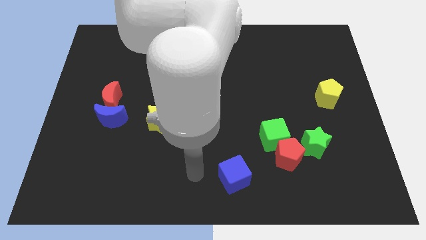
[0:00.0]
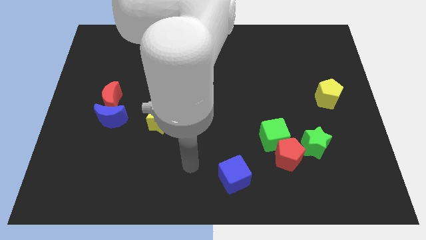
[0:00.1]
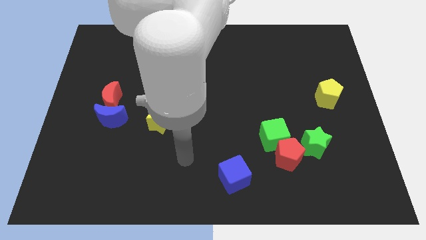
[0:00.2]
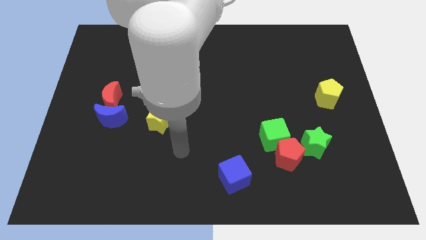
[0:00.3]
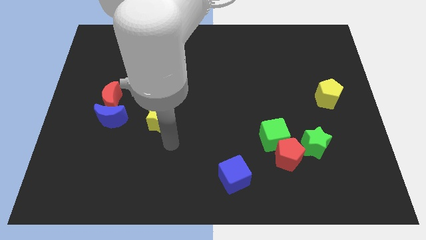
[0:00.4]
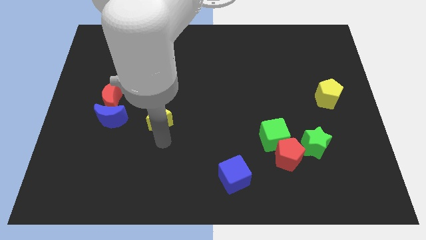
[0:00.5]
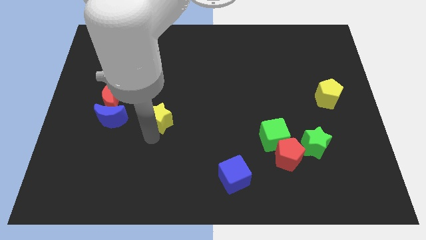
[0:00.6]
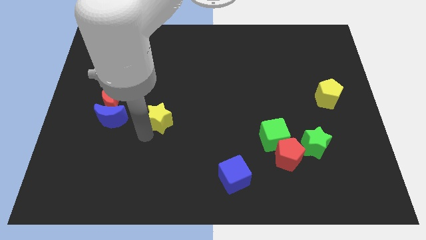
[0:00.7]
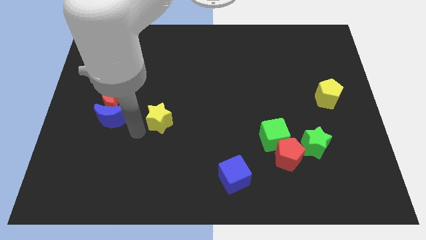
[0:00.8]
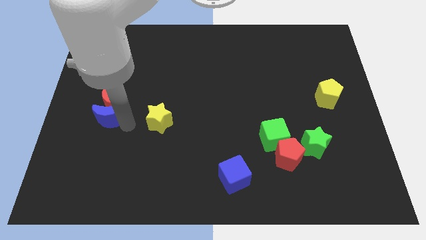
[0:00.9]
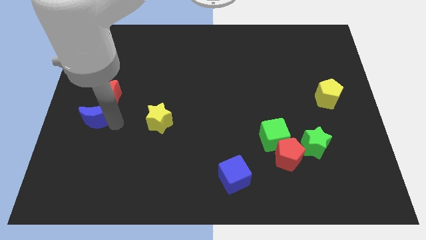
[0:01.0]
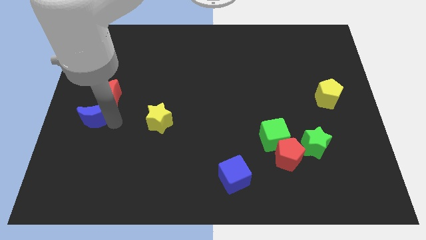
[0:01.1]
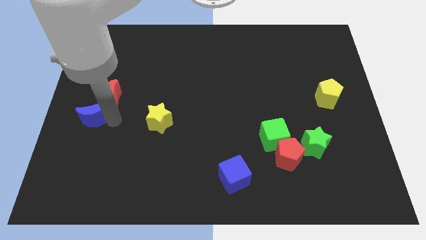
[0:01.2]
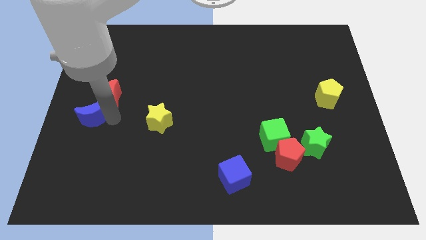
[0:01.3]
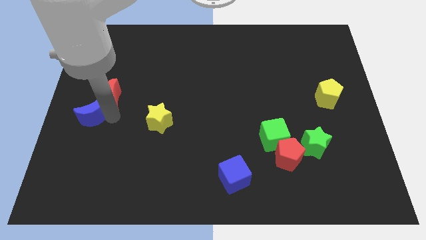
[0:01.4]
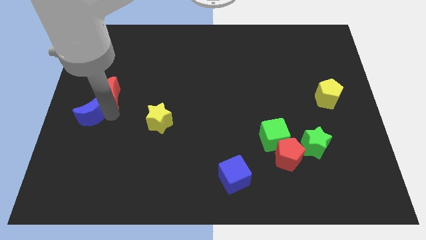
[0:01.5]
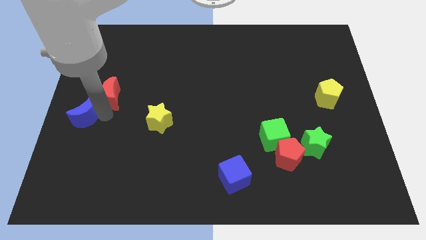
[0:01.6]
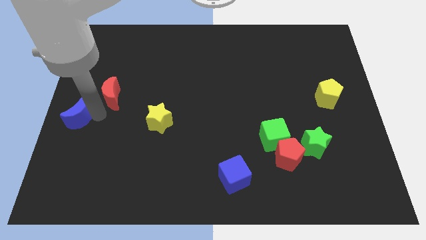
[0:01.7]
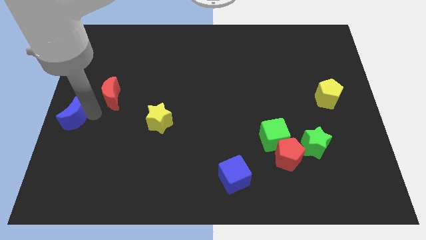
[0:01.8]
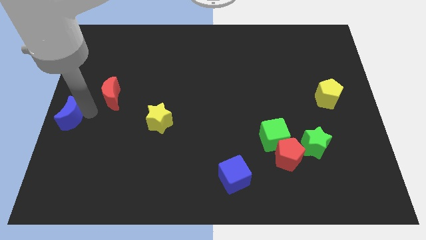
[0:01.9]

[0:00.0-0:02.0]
pull the red moon apart from the blue moon

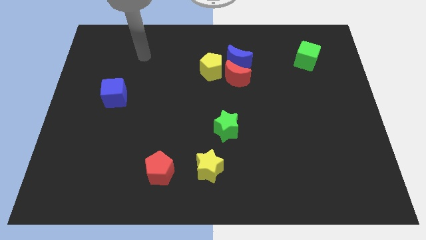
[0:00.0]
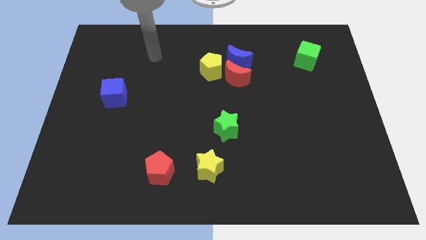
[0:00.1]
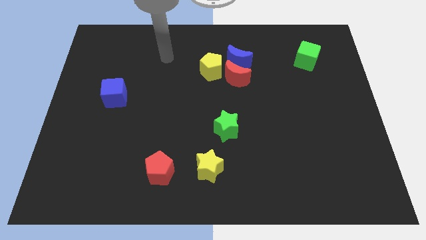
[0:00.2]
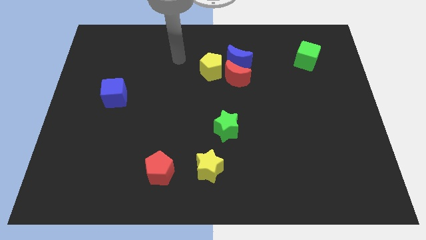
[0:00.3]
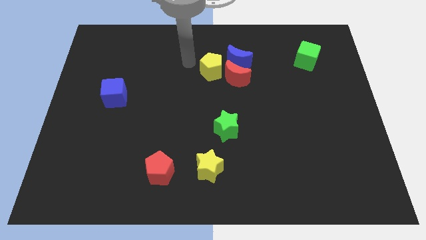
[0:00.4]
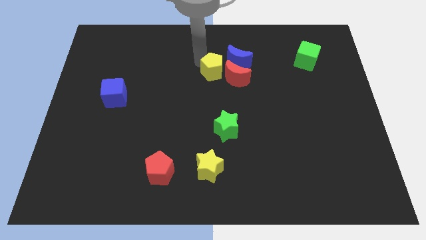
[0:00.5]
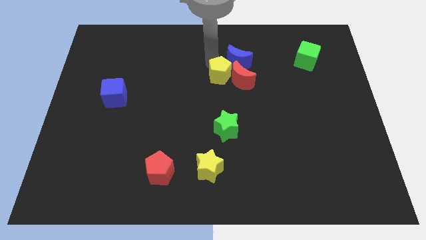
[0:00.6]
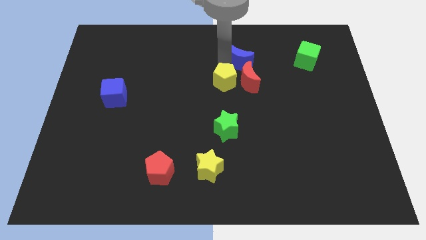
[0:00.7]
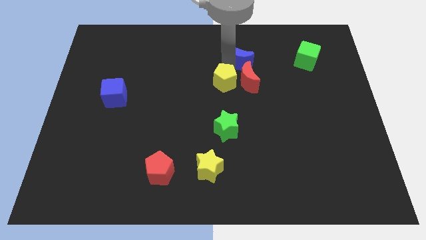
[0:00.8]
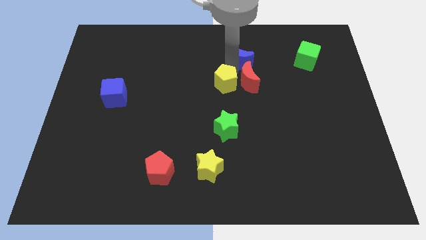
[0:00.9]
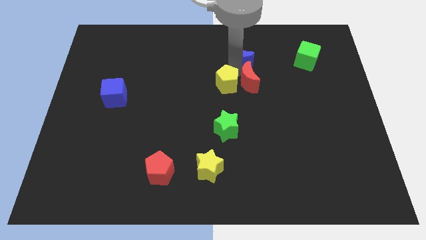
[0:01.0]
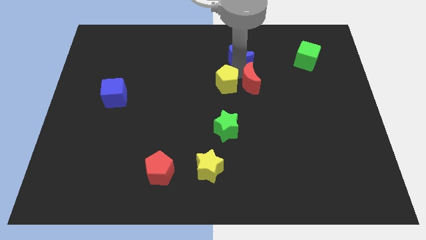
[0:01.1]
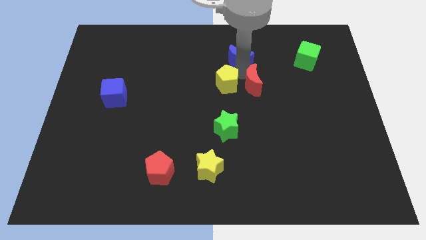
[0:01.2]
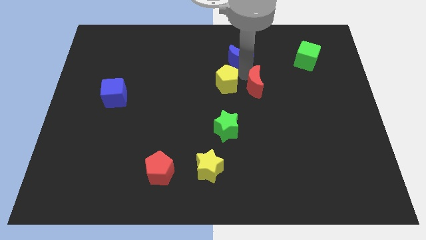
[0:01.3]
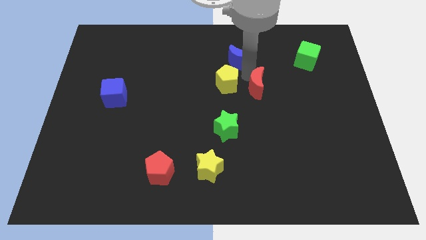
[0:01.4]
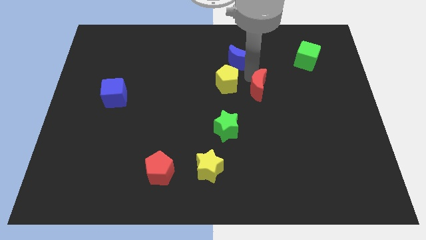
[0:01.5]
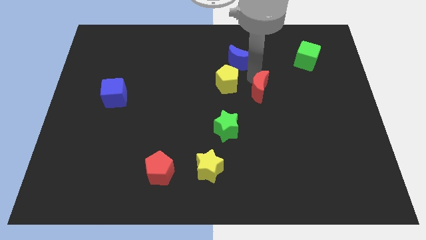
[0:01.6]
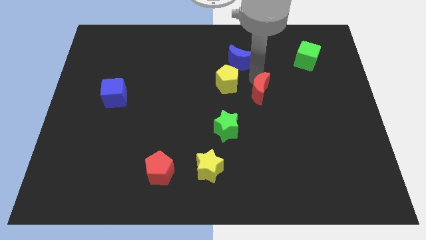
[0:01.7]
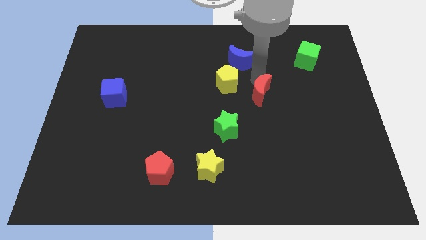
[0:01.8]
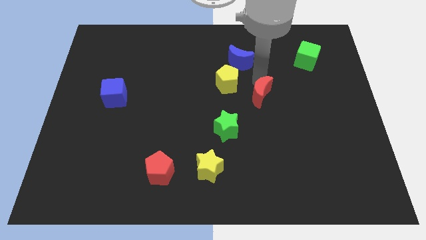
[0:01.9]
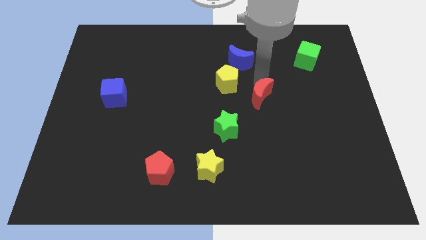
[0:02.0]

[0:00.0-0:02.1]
move the red moon away from the blue moon and yellow pentagon

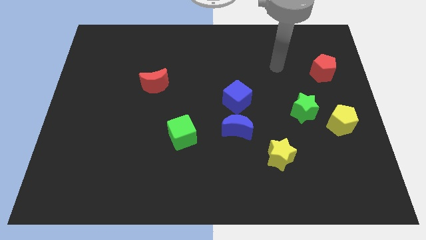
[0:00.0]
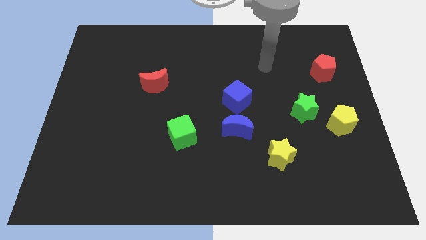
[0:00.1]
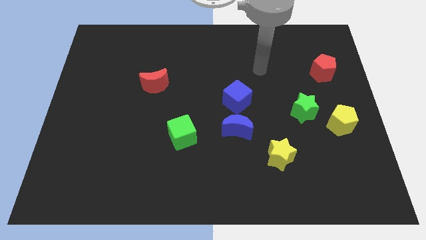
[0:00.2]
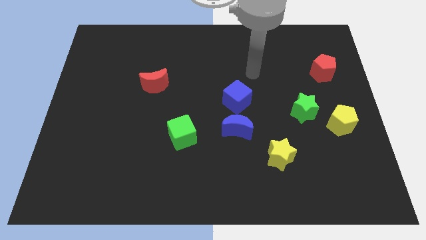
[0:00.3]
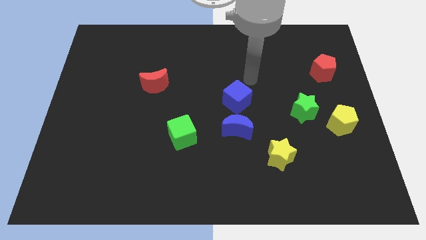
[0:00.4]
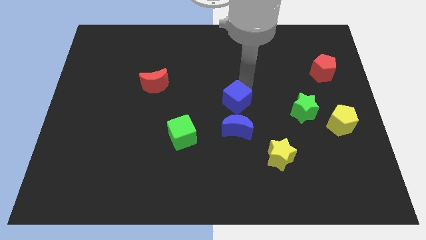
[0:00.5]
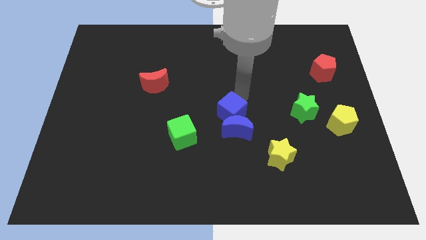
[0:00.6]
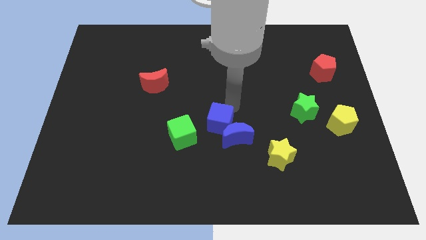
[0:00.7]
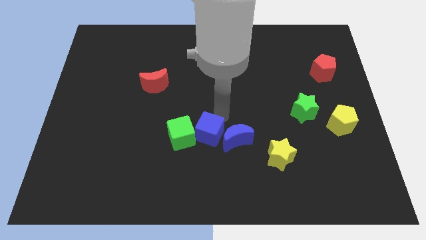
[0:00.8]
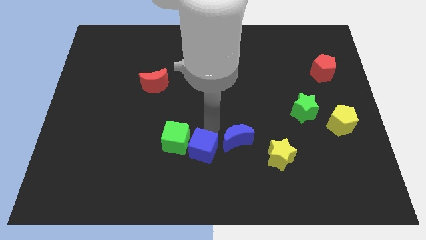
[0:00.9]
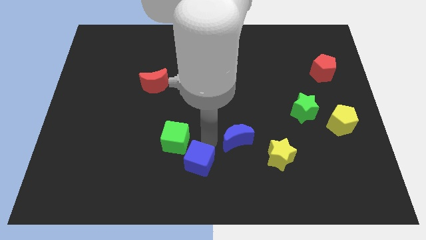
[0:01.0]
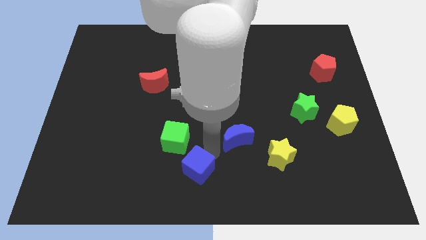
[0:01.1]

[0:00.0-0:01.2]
separate the blue moon from the blue cube

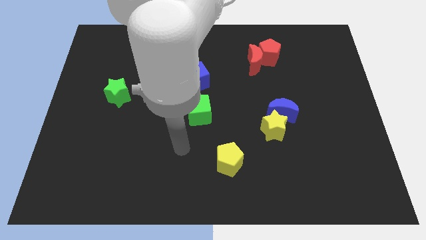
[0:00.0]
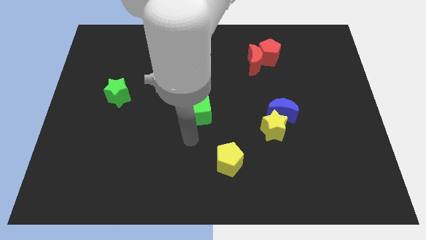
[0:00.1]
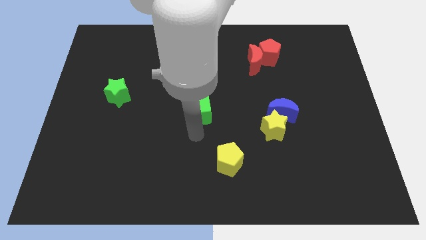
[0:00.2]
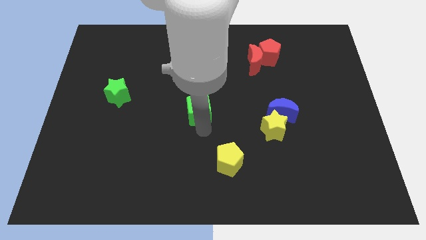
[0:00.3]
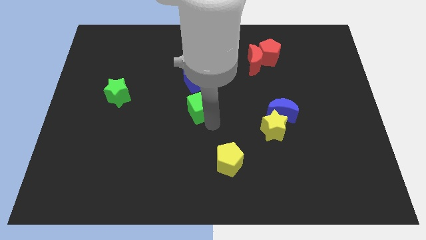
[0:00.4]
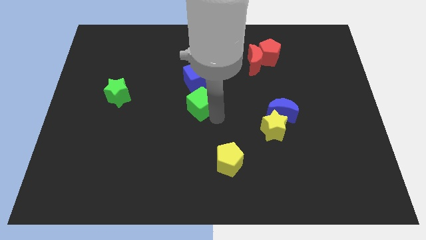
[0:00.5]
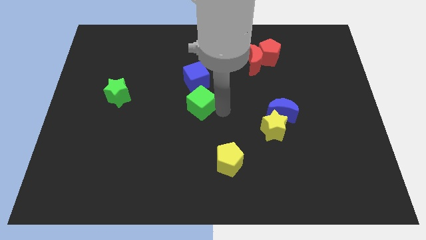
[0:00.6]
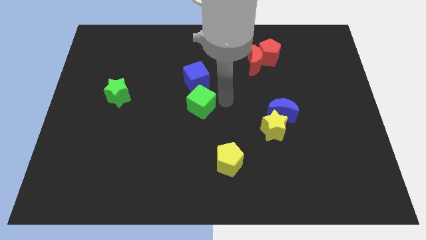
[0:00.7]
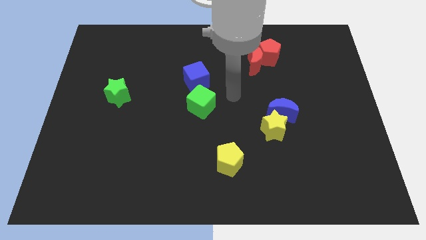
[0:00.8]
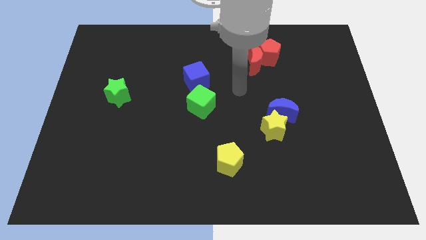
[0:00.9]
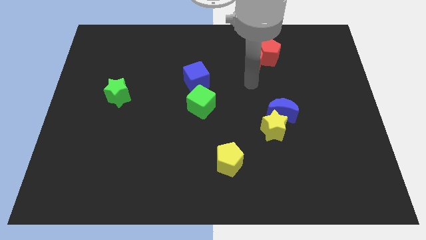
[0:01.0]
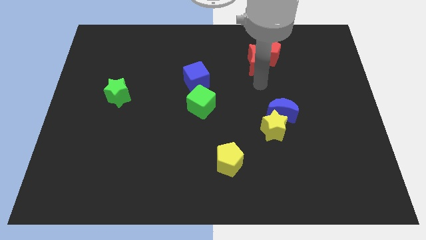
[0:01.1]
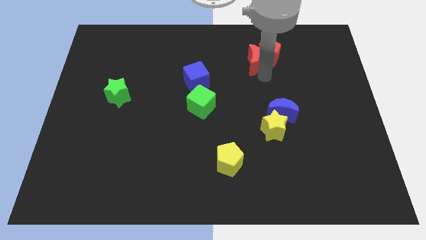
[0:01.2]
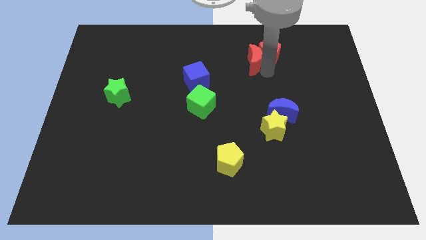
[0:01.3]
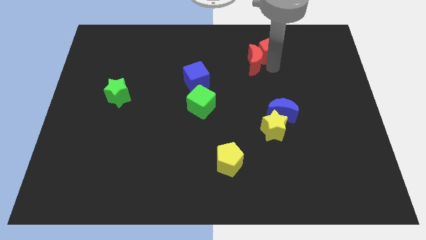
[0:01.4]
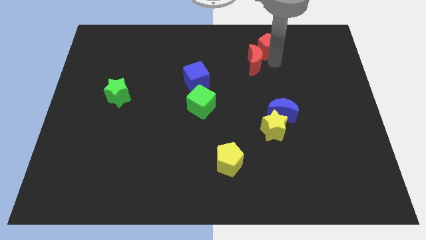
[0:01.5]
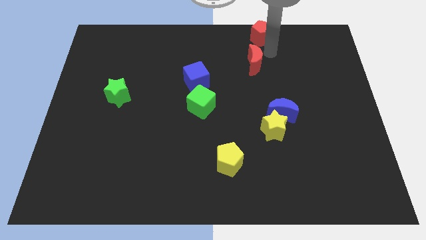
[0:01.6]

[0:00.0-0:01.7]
separate the red moon from the red pentagon

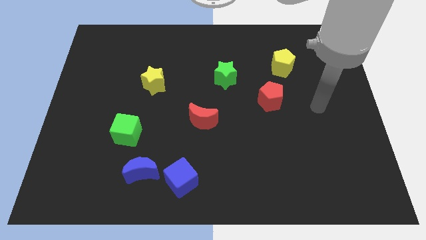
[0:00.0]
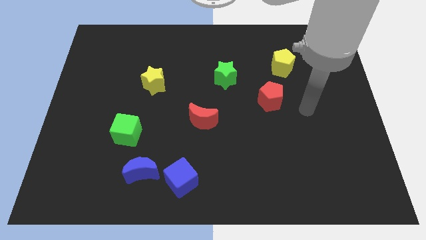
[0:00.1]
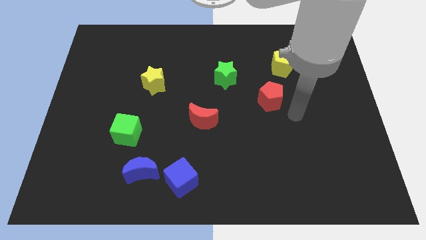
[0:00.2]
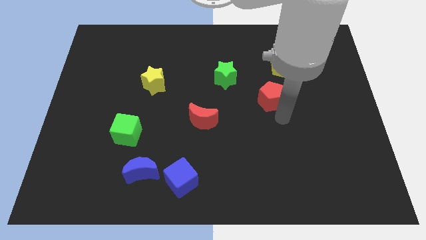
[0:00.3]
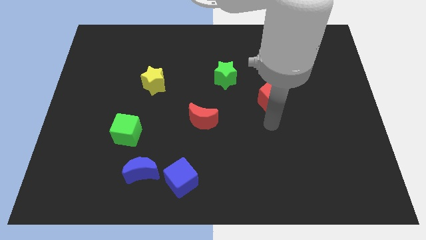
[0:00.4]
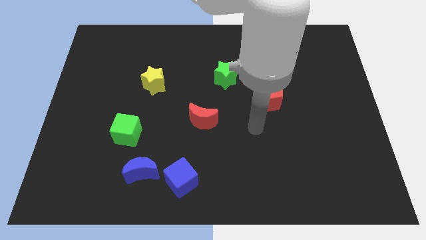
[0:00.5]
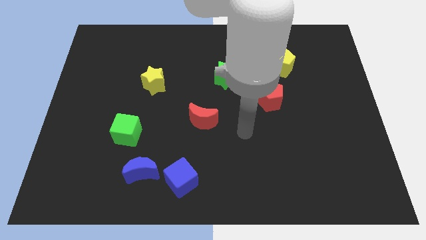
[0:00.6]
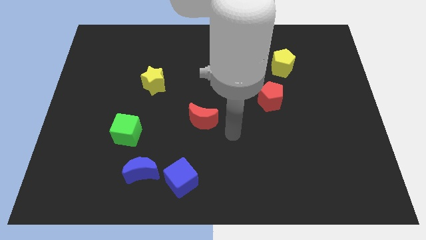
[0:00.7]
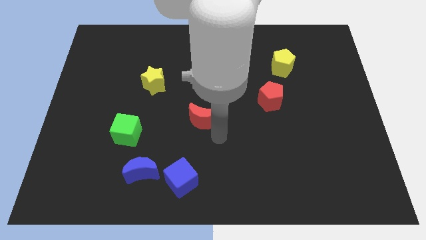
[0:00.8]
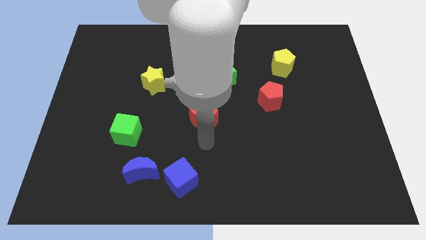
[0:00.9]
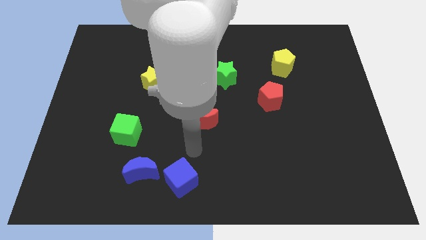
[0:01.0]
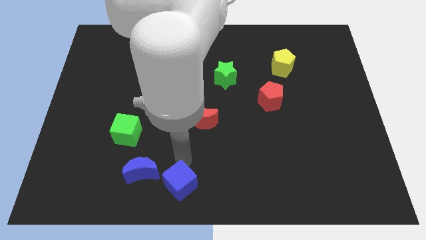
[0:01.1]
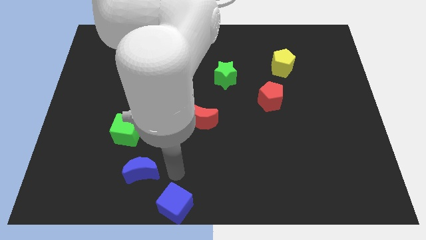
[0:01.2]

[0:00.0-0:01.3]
pull the blue moon apart from the blue cube

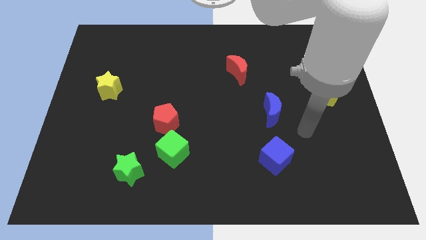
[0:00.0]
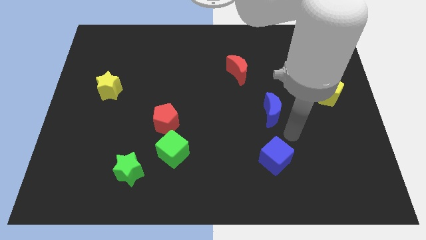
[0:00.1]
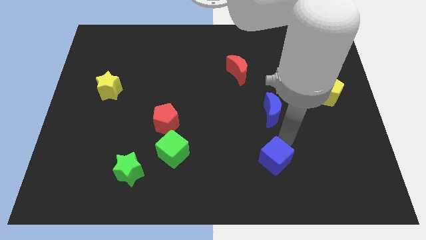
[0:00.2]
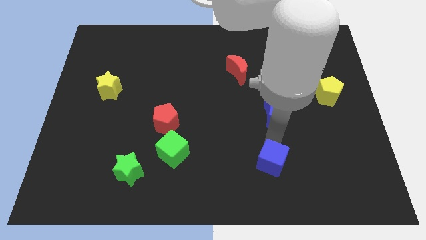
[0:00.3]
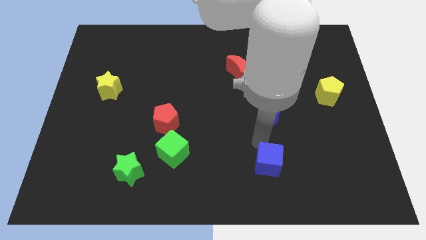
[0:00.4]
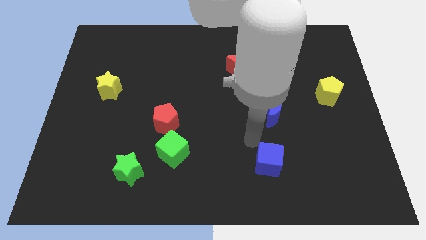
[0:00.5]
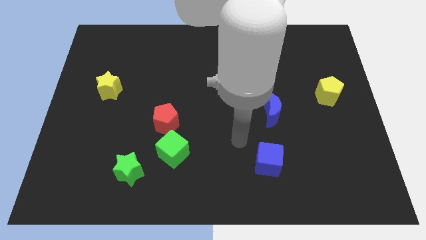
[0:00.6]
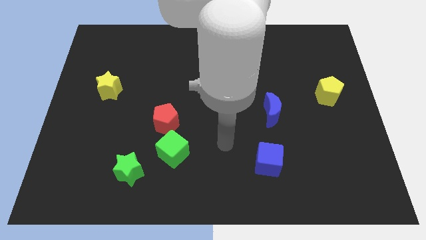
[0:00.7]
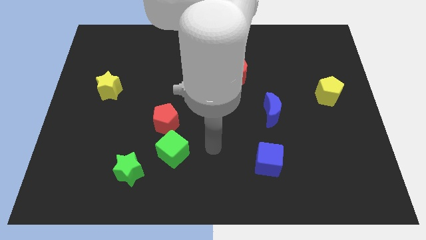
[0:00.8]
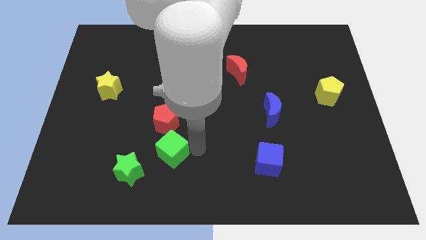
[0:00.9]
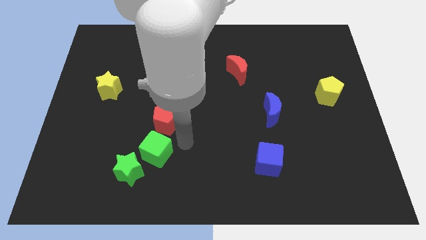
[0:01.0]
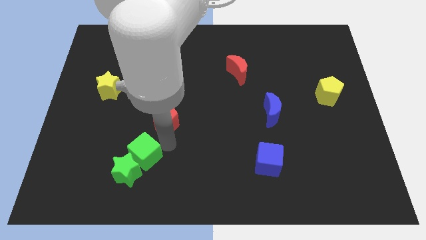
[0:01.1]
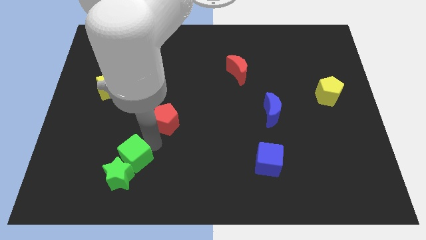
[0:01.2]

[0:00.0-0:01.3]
separate the red pentagon from the green cube
